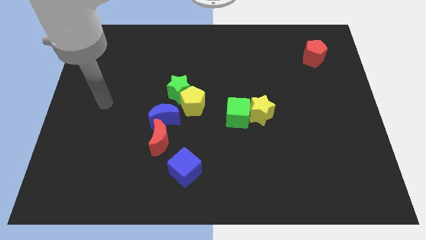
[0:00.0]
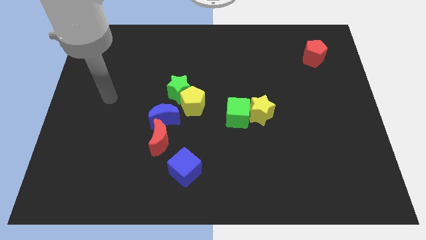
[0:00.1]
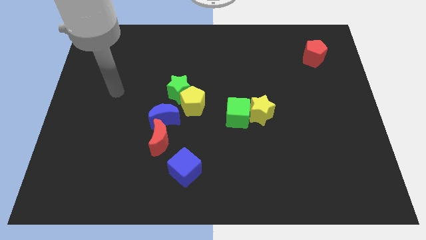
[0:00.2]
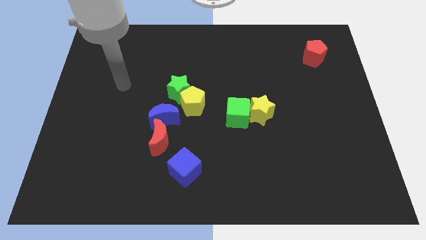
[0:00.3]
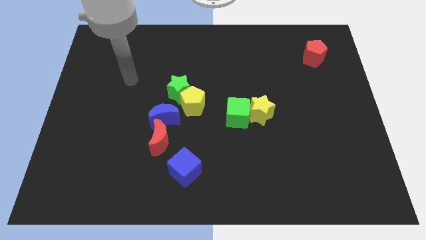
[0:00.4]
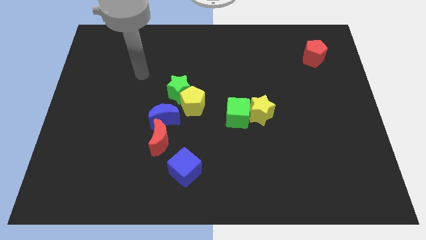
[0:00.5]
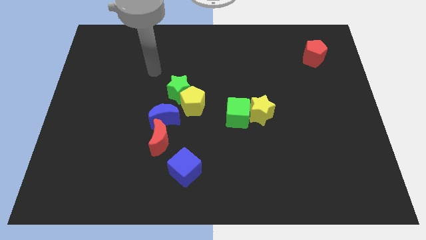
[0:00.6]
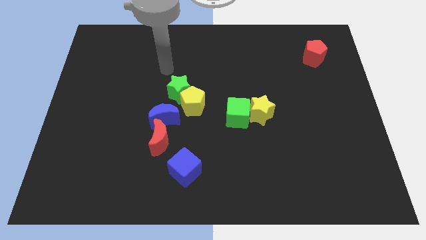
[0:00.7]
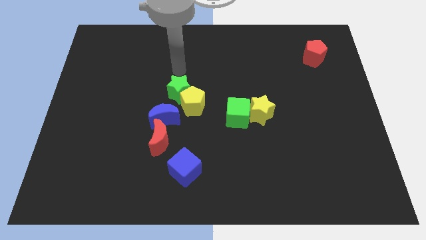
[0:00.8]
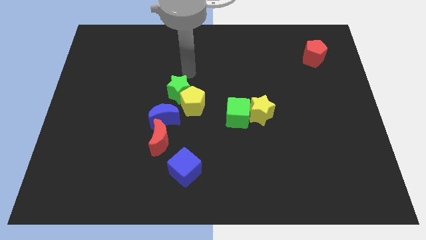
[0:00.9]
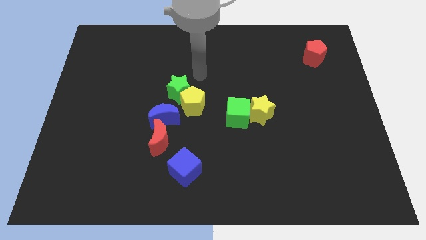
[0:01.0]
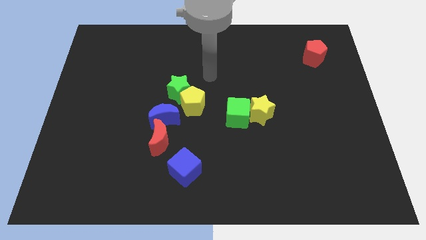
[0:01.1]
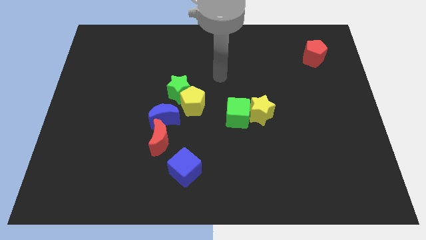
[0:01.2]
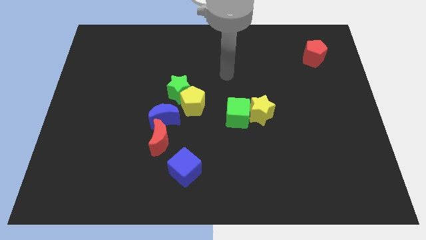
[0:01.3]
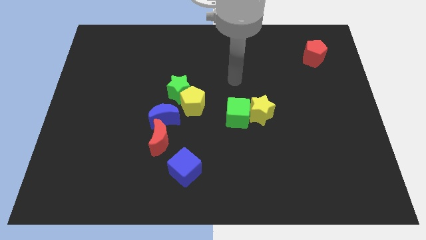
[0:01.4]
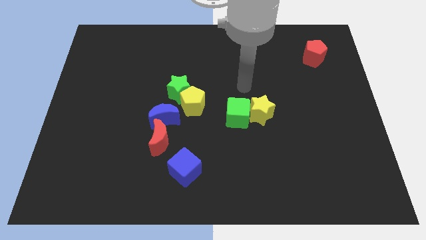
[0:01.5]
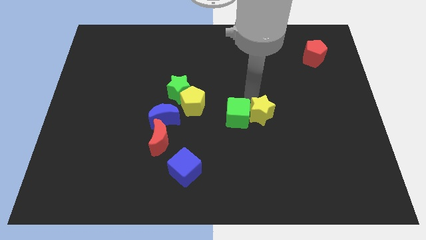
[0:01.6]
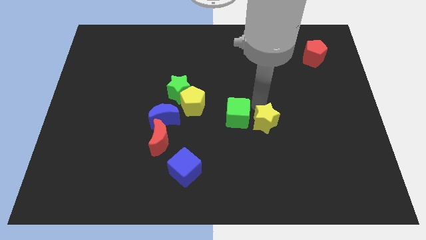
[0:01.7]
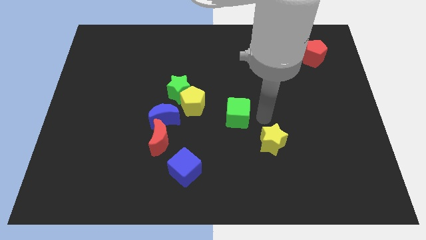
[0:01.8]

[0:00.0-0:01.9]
separate the green cube from the yellow star

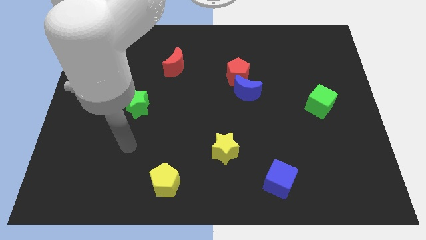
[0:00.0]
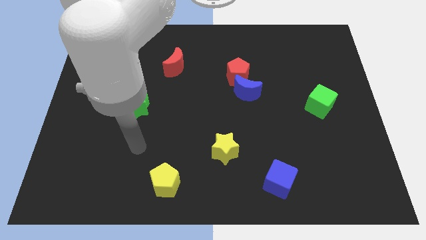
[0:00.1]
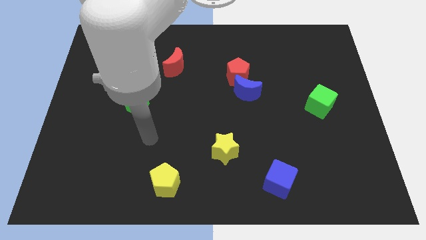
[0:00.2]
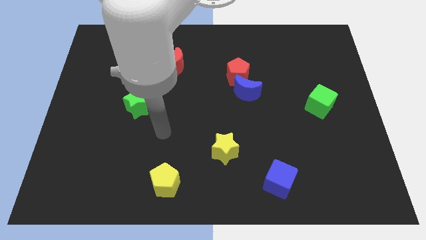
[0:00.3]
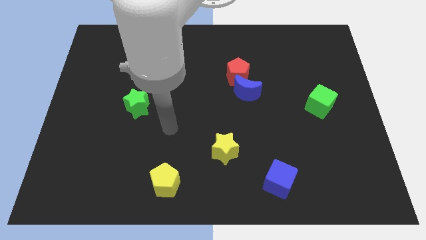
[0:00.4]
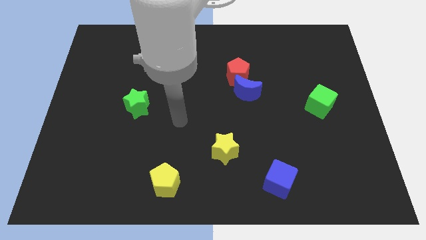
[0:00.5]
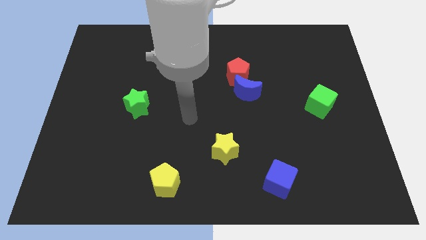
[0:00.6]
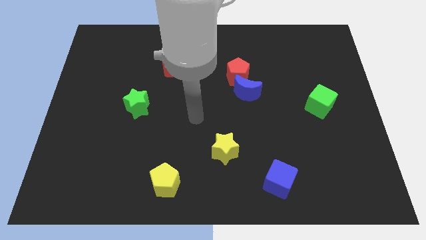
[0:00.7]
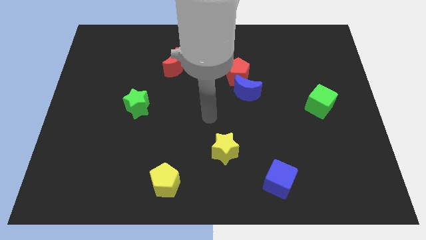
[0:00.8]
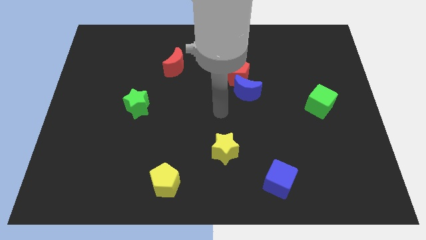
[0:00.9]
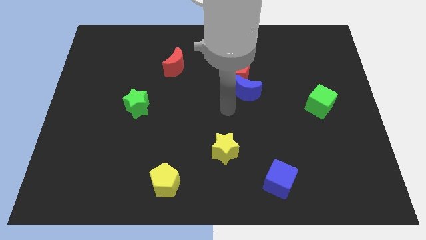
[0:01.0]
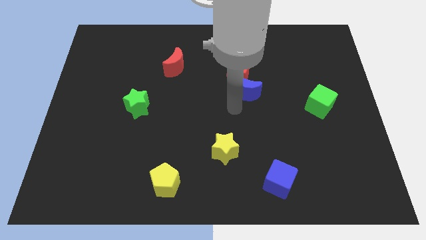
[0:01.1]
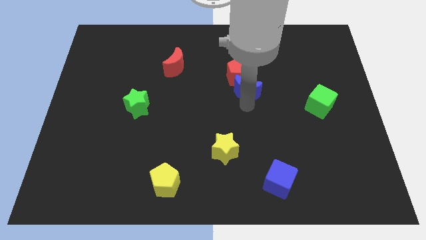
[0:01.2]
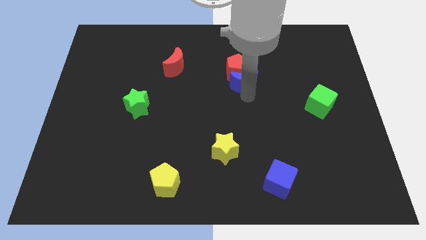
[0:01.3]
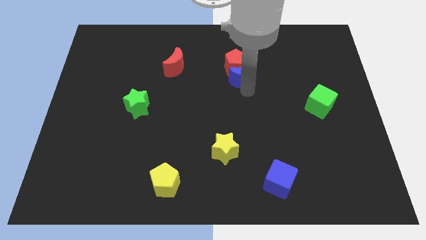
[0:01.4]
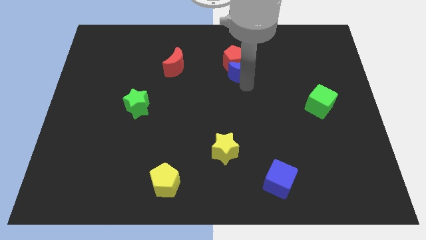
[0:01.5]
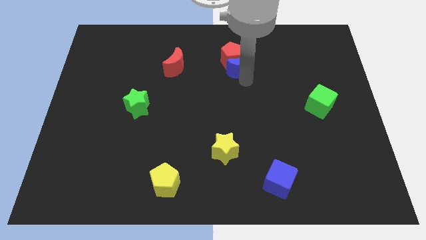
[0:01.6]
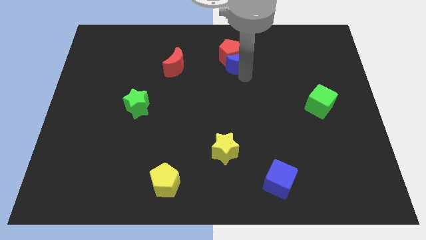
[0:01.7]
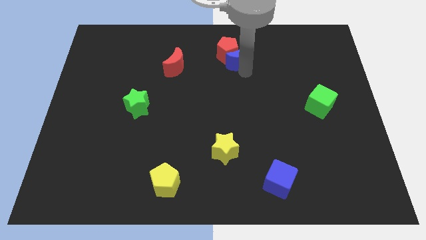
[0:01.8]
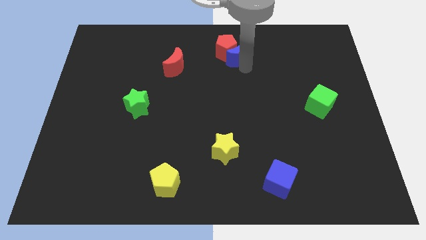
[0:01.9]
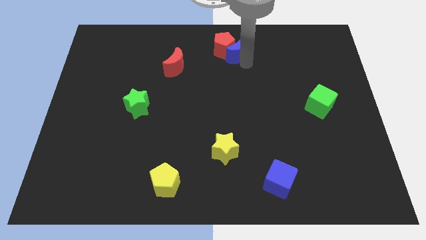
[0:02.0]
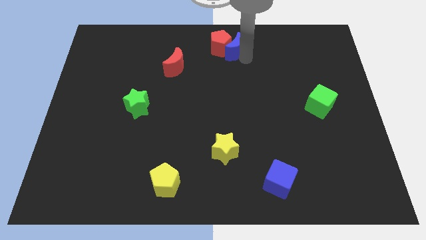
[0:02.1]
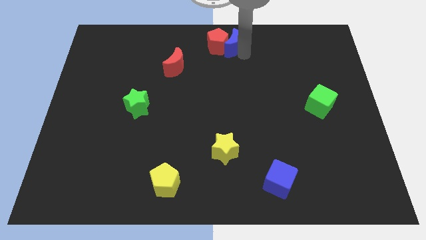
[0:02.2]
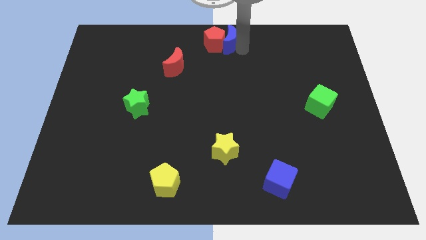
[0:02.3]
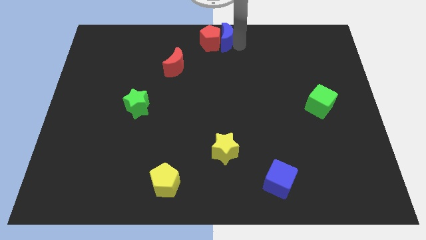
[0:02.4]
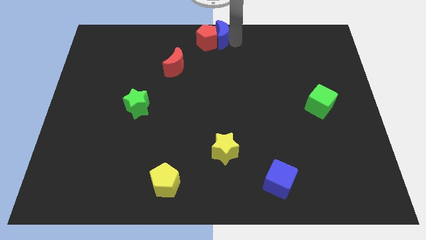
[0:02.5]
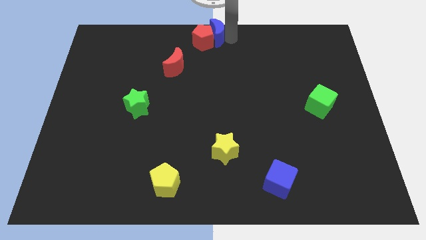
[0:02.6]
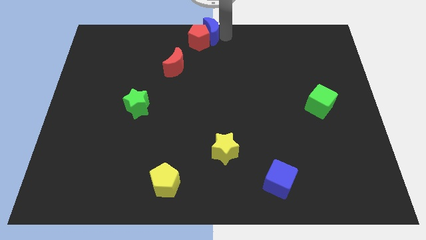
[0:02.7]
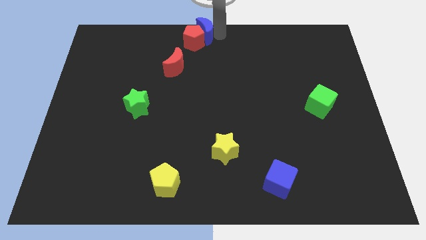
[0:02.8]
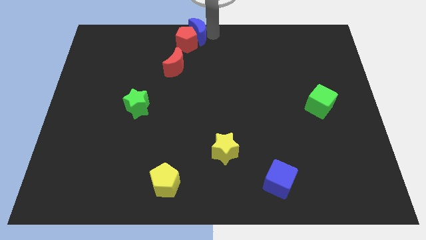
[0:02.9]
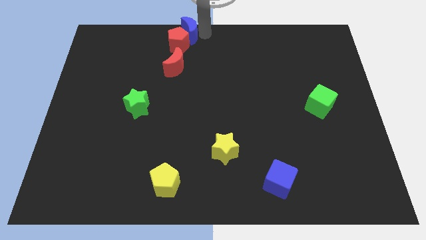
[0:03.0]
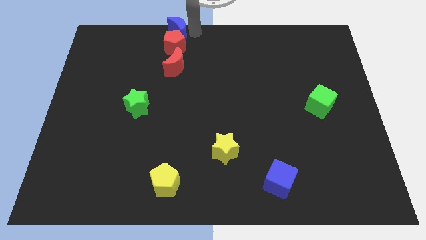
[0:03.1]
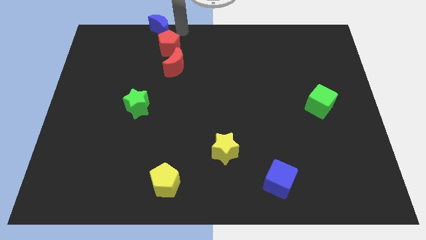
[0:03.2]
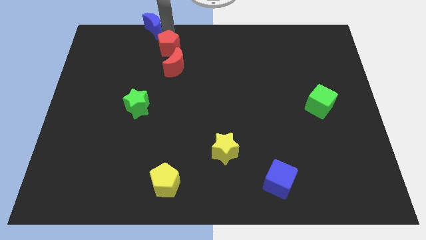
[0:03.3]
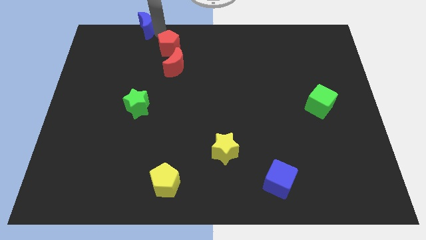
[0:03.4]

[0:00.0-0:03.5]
pull the red pentagon apart from the blue moon

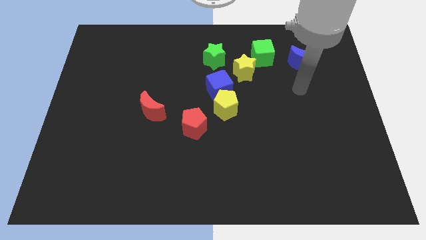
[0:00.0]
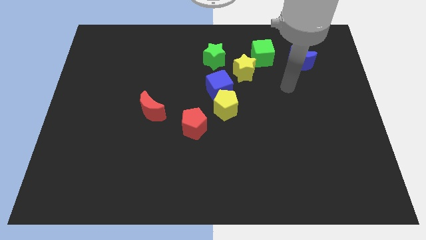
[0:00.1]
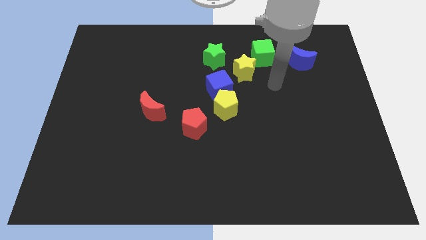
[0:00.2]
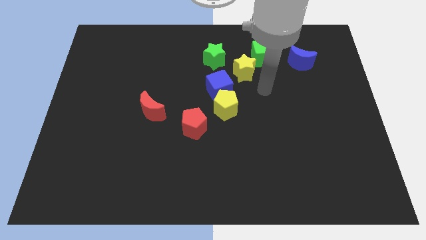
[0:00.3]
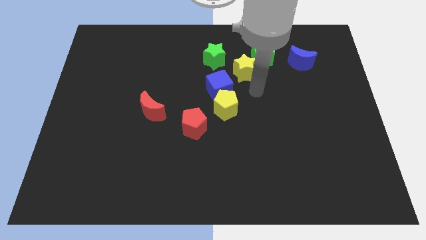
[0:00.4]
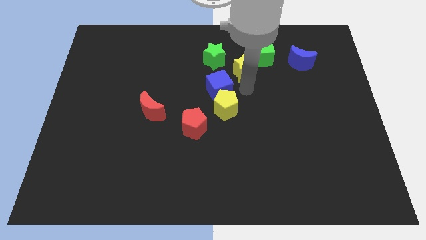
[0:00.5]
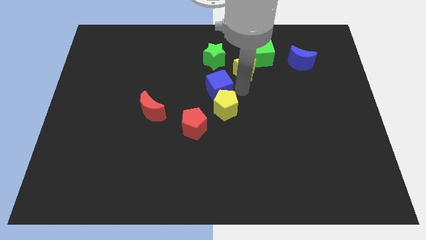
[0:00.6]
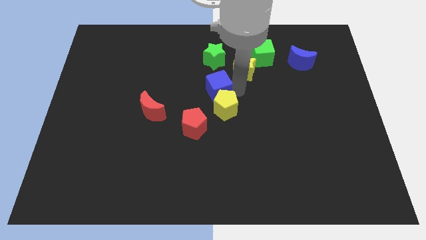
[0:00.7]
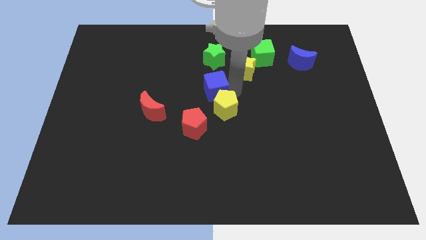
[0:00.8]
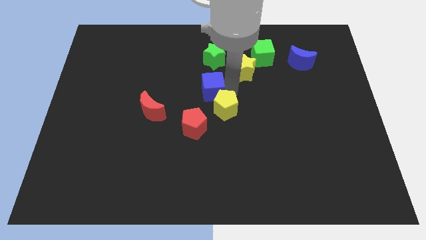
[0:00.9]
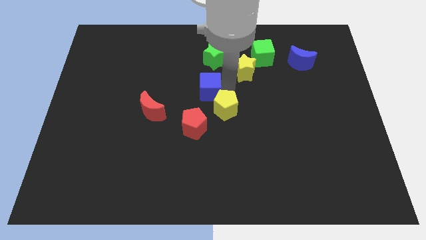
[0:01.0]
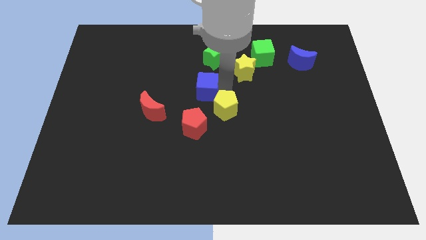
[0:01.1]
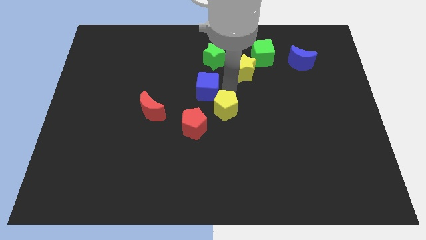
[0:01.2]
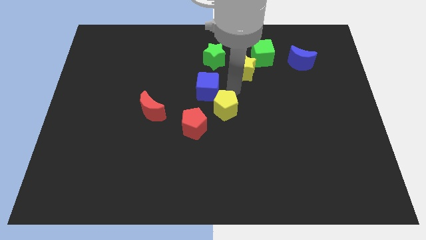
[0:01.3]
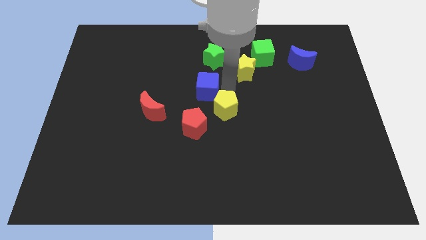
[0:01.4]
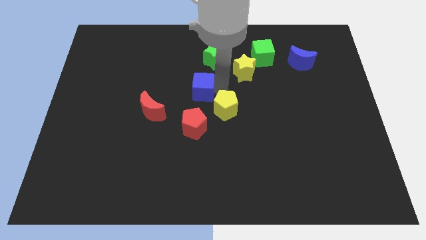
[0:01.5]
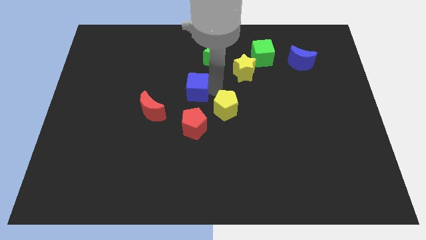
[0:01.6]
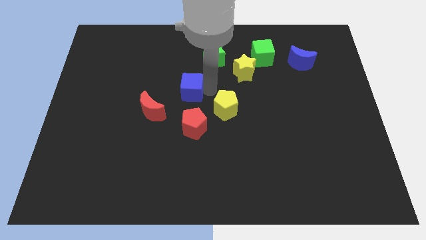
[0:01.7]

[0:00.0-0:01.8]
separate the blue cube from the yellow pentagon and yellow star

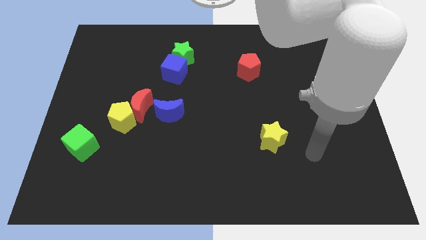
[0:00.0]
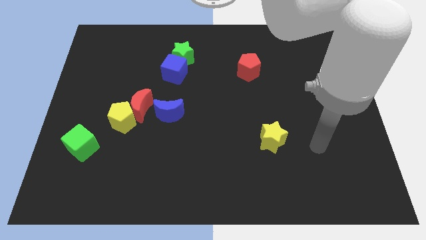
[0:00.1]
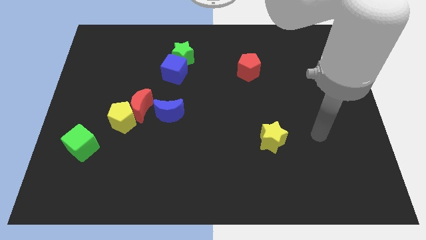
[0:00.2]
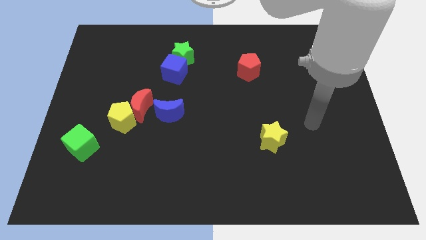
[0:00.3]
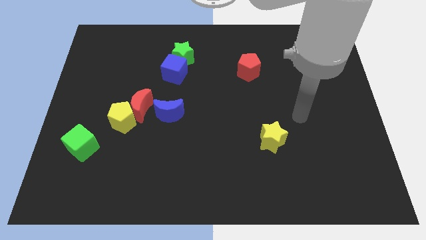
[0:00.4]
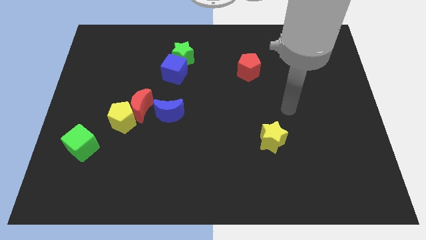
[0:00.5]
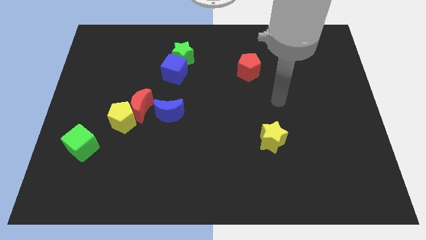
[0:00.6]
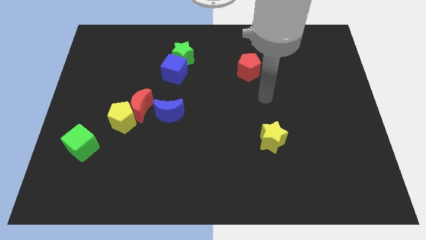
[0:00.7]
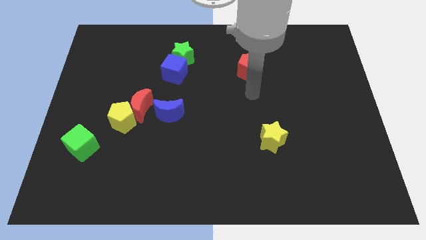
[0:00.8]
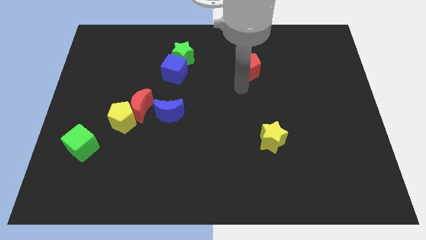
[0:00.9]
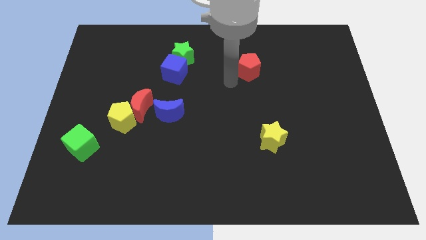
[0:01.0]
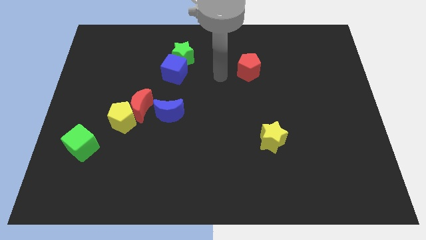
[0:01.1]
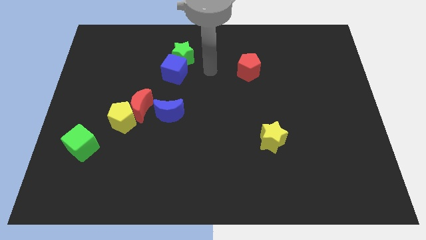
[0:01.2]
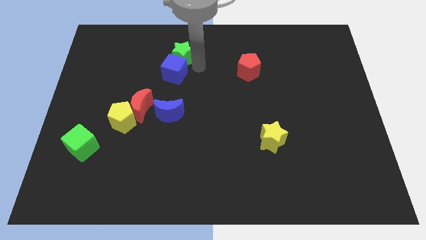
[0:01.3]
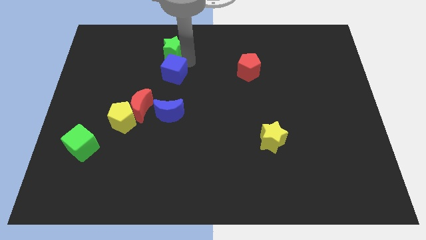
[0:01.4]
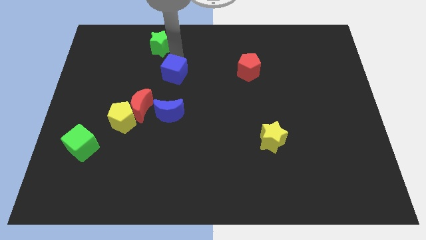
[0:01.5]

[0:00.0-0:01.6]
separate the blue cube from the green star

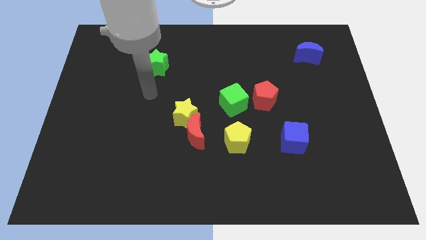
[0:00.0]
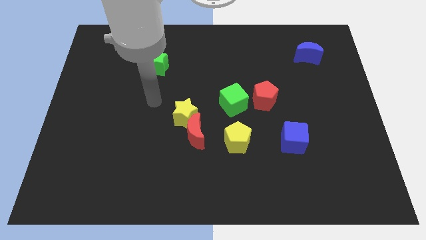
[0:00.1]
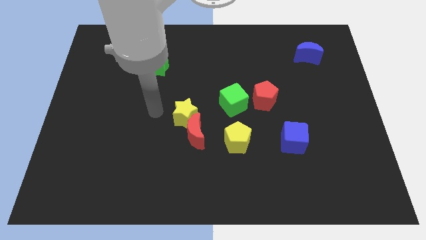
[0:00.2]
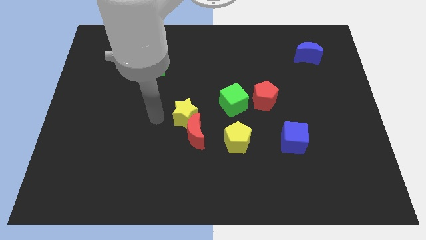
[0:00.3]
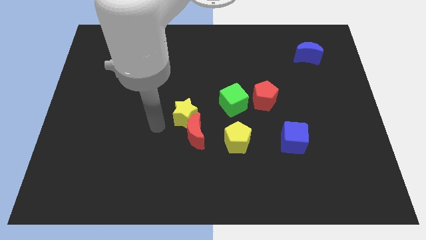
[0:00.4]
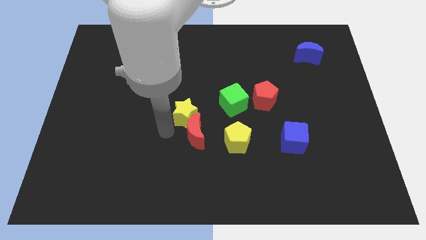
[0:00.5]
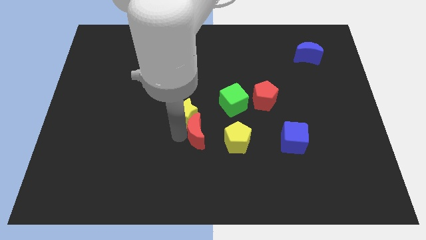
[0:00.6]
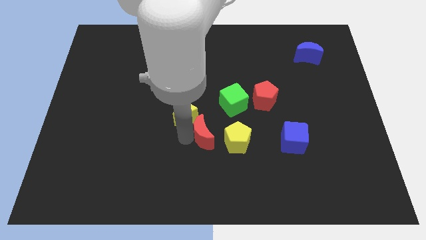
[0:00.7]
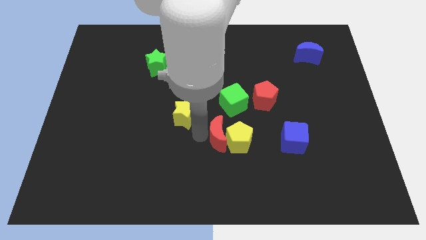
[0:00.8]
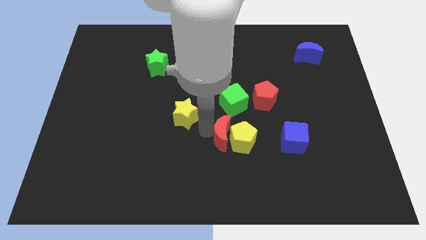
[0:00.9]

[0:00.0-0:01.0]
move the yellow star away from the red moon
